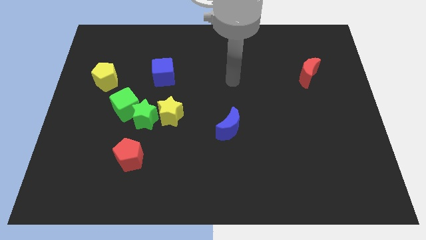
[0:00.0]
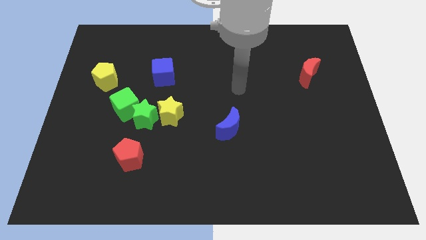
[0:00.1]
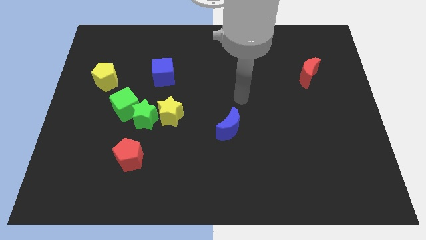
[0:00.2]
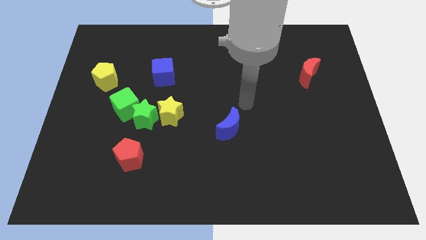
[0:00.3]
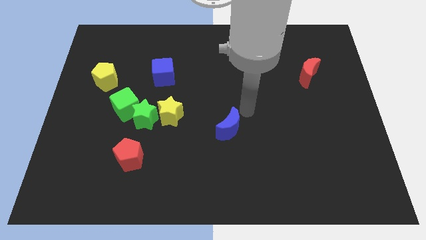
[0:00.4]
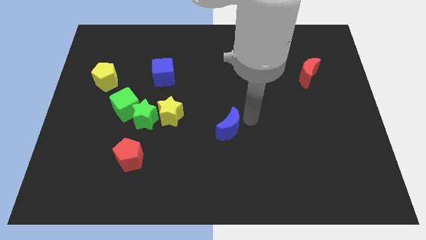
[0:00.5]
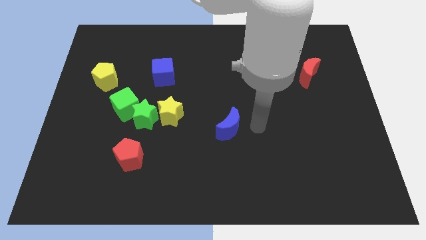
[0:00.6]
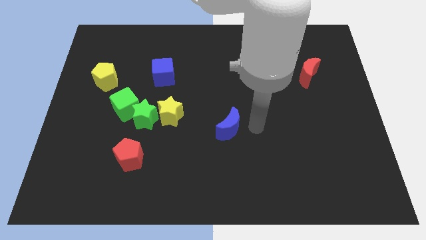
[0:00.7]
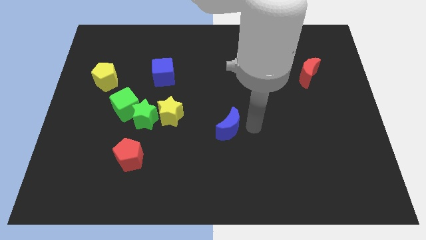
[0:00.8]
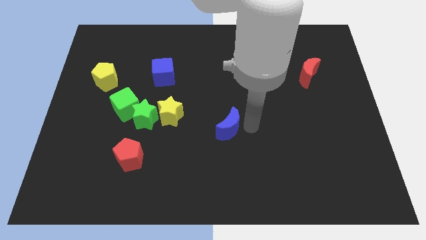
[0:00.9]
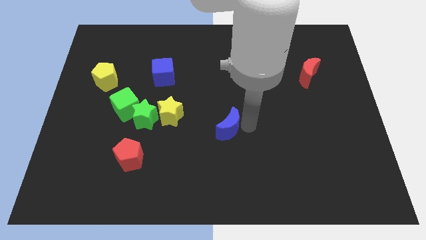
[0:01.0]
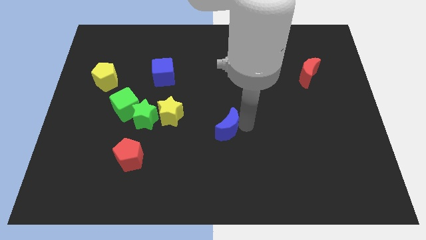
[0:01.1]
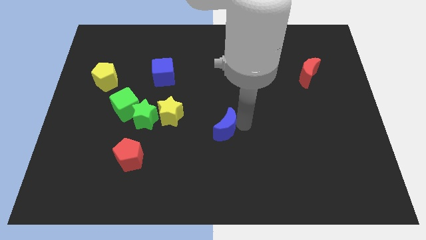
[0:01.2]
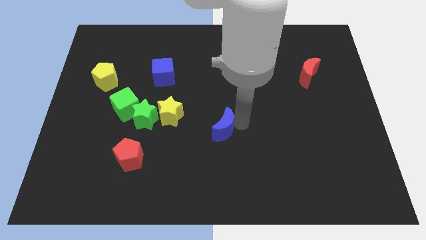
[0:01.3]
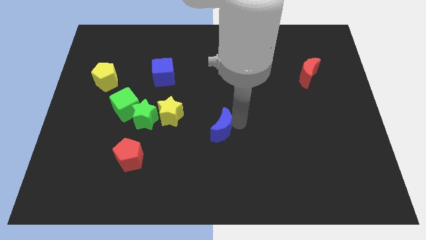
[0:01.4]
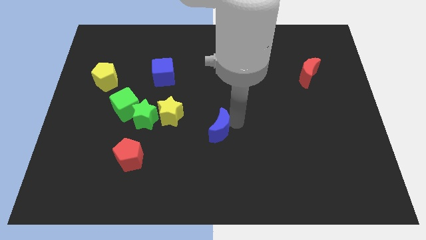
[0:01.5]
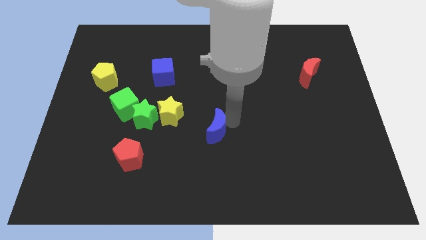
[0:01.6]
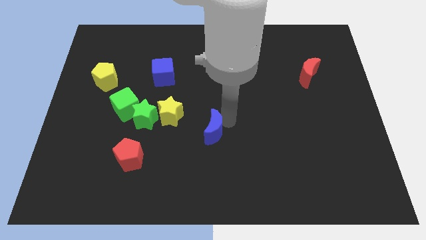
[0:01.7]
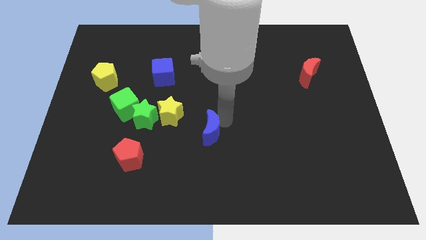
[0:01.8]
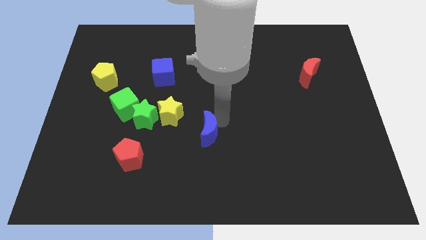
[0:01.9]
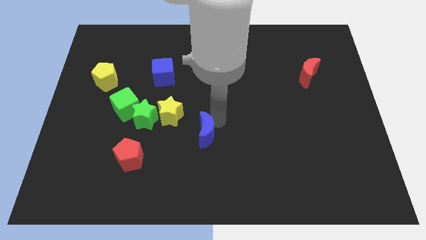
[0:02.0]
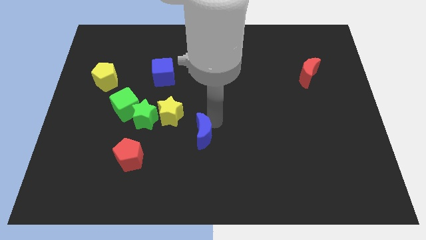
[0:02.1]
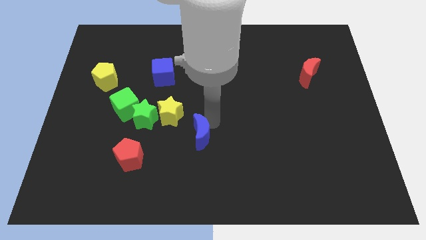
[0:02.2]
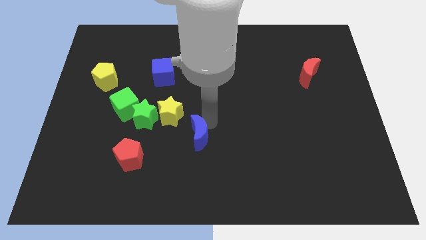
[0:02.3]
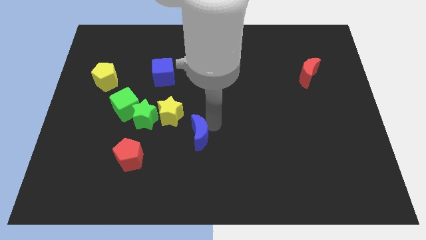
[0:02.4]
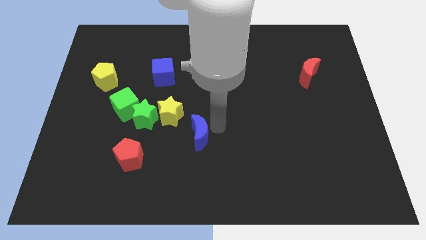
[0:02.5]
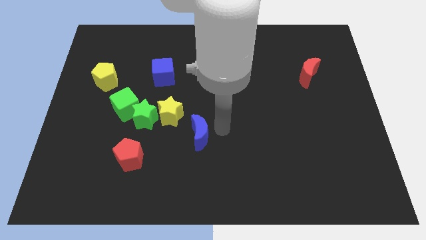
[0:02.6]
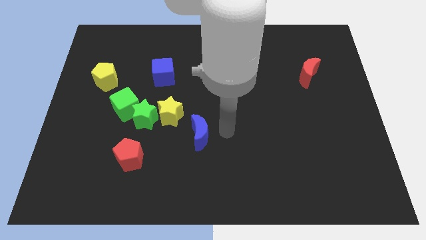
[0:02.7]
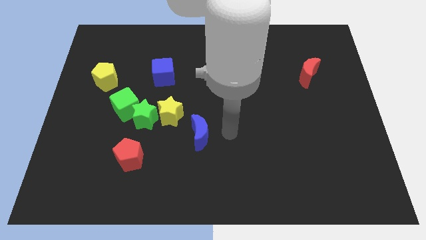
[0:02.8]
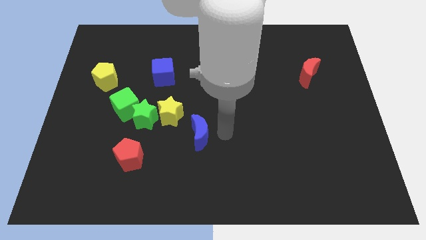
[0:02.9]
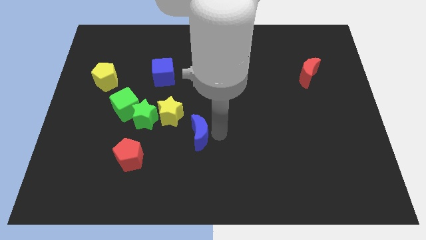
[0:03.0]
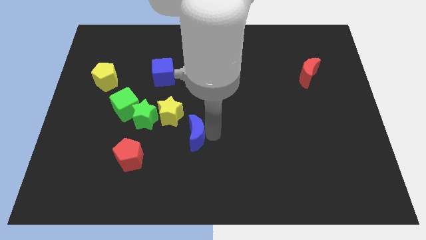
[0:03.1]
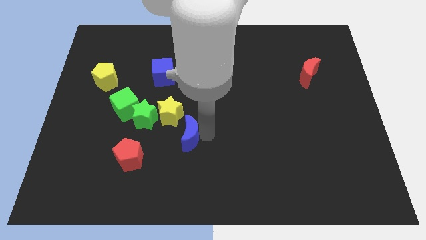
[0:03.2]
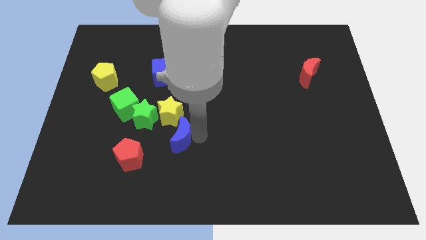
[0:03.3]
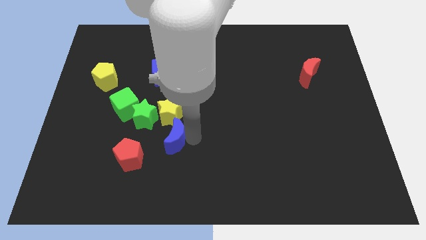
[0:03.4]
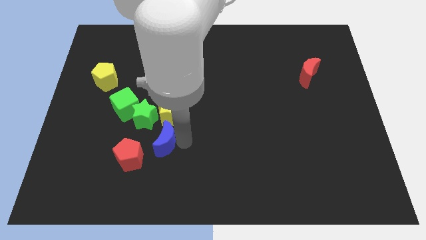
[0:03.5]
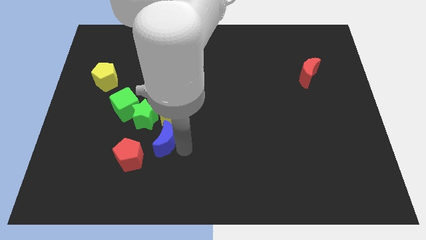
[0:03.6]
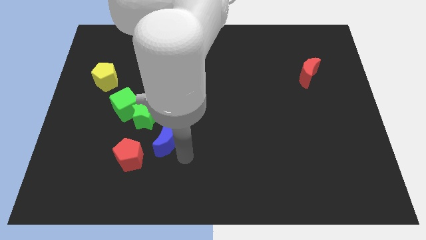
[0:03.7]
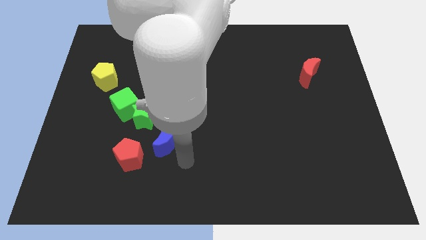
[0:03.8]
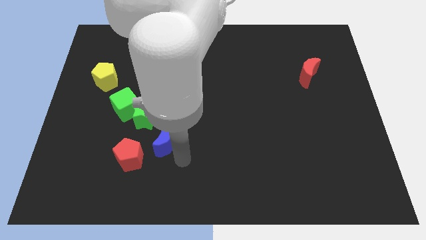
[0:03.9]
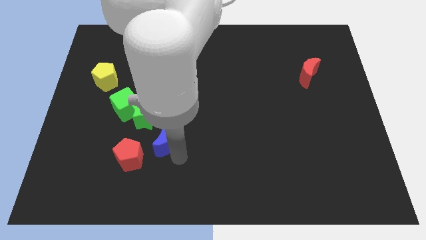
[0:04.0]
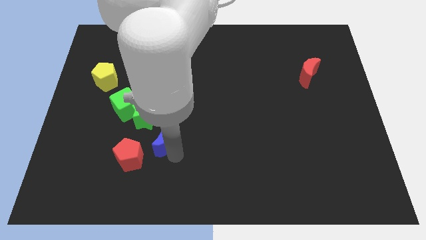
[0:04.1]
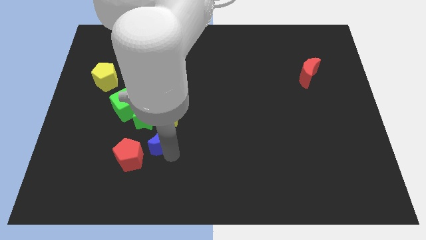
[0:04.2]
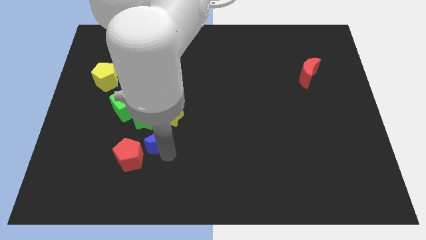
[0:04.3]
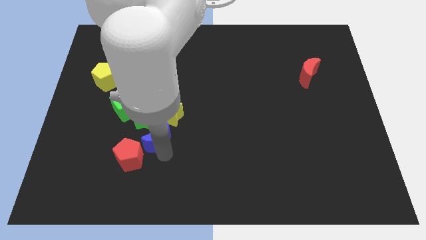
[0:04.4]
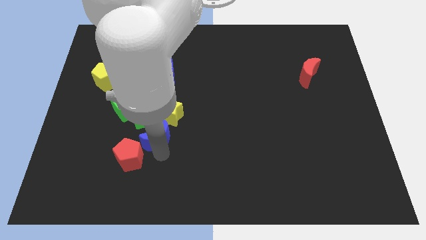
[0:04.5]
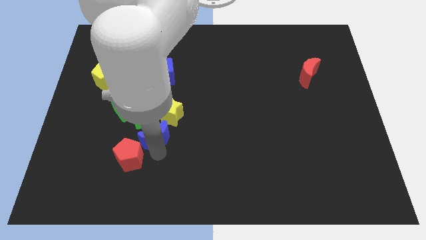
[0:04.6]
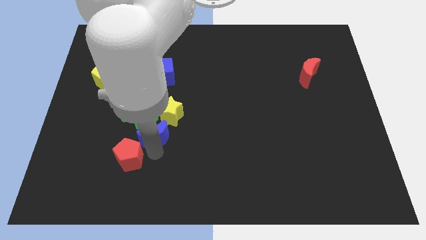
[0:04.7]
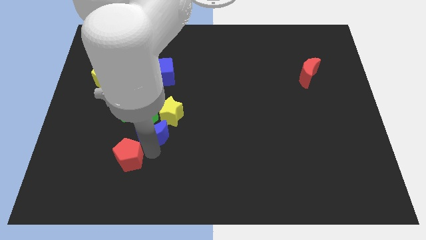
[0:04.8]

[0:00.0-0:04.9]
move the blue moon to the green star

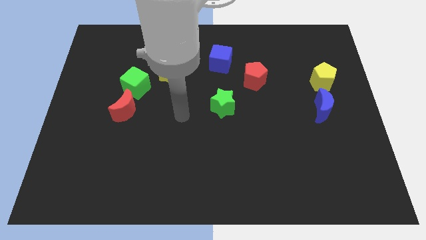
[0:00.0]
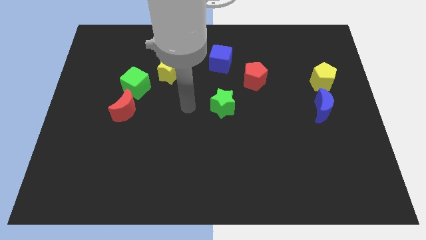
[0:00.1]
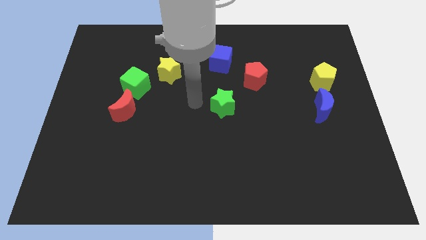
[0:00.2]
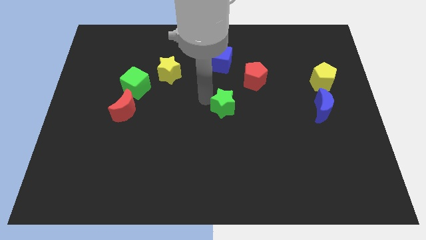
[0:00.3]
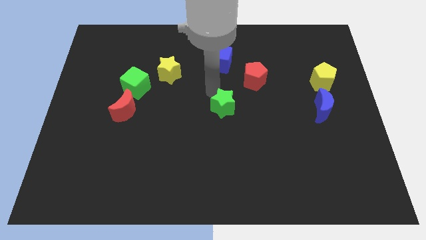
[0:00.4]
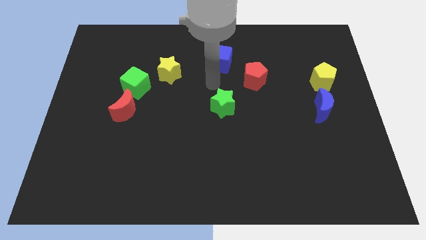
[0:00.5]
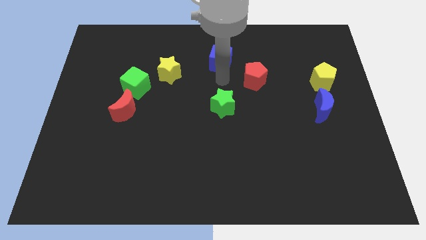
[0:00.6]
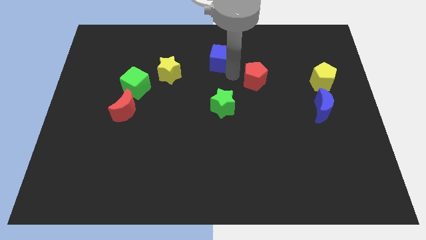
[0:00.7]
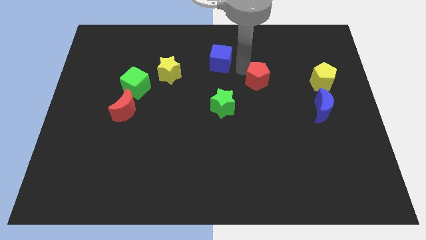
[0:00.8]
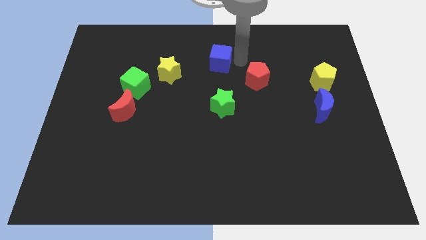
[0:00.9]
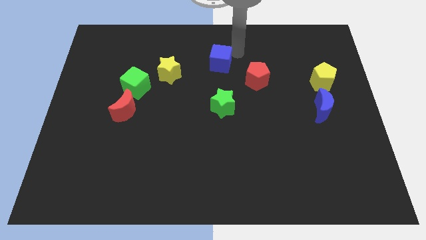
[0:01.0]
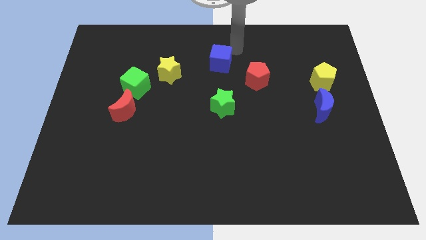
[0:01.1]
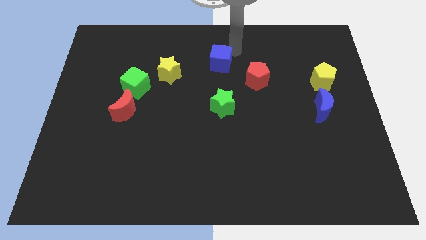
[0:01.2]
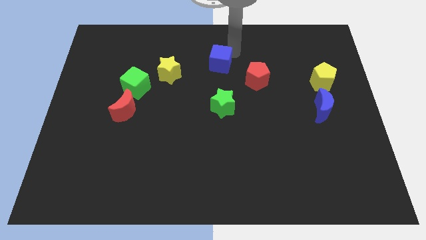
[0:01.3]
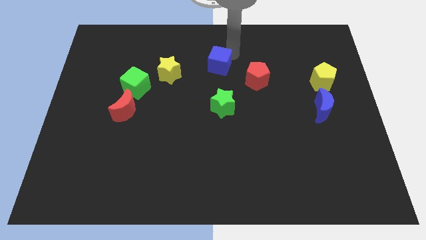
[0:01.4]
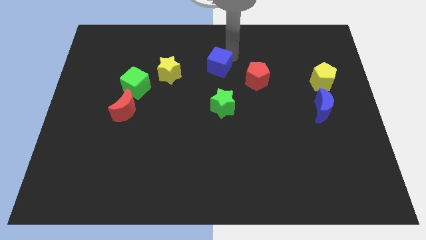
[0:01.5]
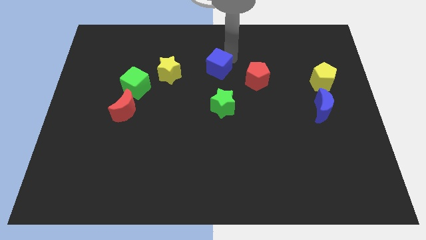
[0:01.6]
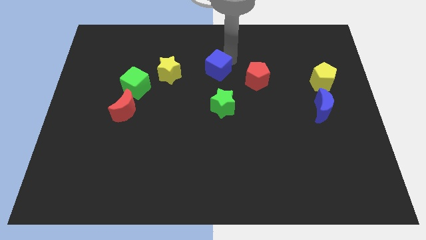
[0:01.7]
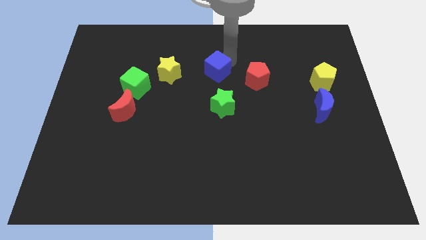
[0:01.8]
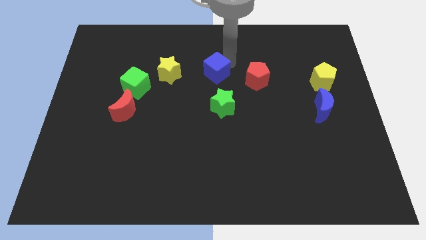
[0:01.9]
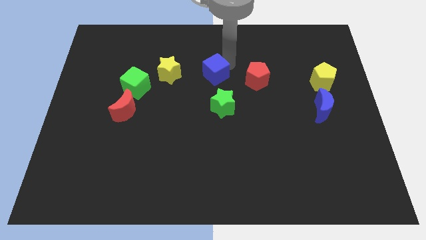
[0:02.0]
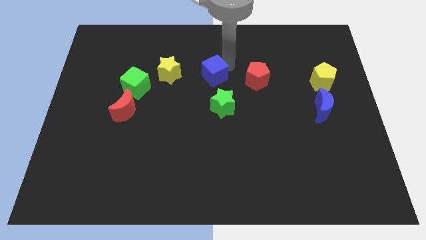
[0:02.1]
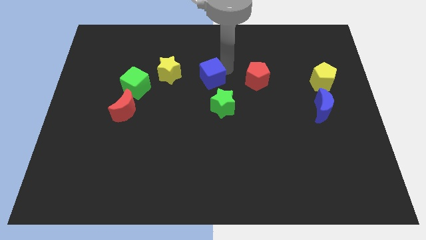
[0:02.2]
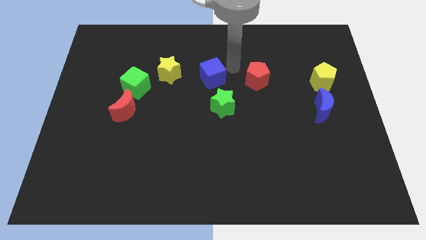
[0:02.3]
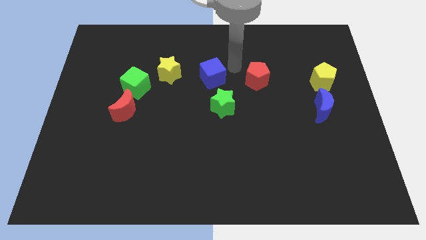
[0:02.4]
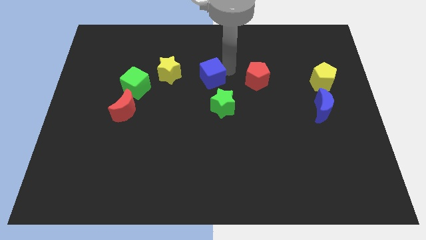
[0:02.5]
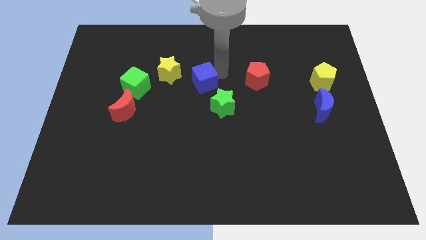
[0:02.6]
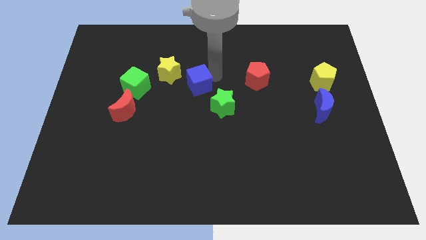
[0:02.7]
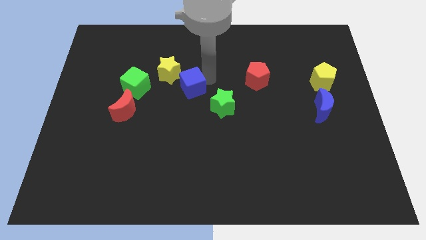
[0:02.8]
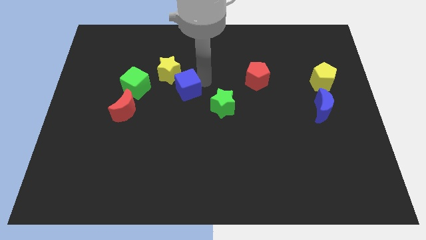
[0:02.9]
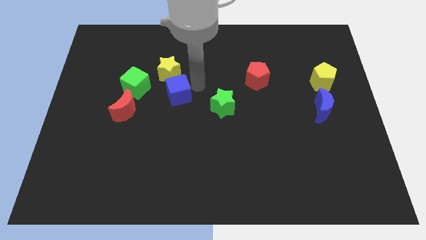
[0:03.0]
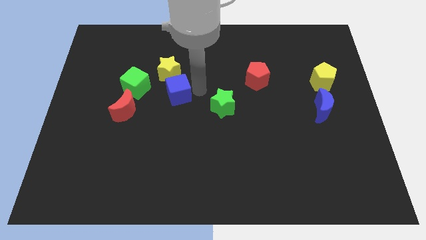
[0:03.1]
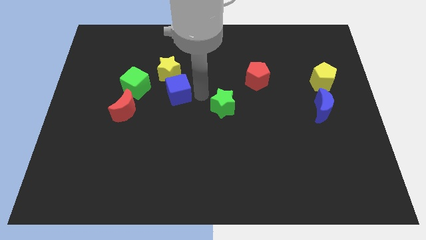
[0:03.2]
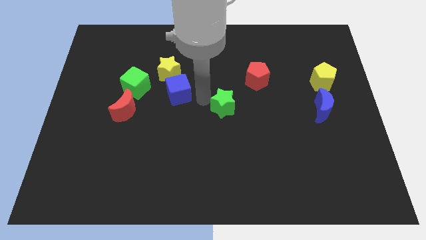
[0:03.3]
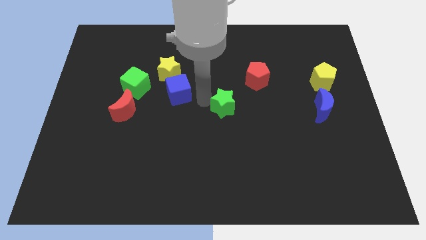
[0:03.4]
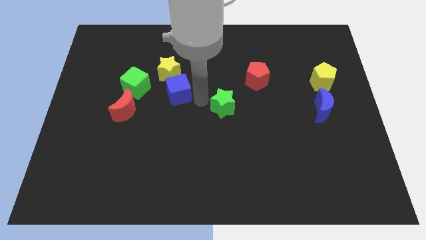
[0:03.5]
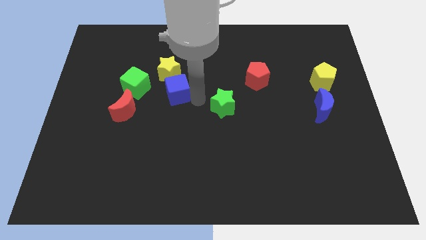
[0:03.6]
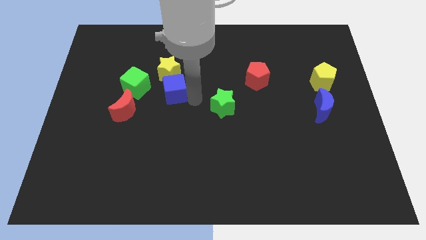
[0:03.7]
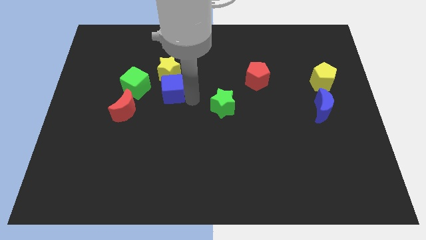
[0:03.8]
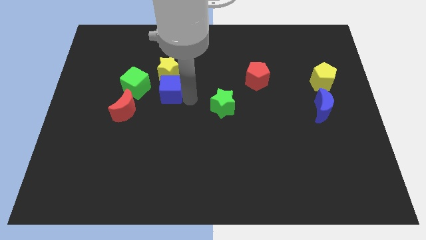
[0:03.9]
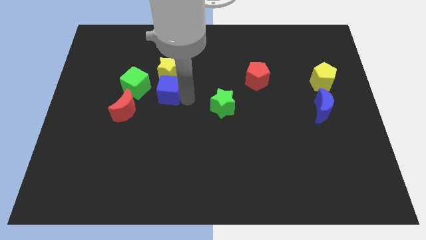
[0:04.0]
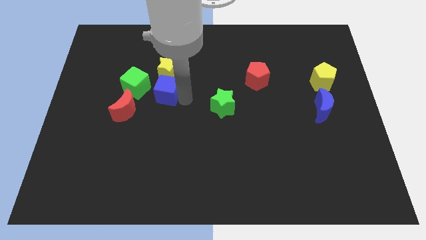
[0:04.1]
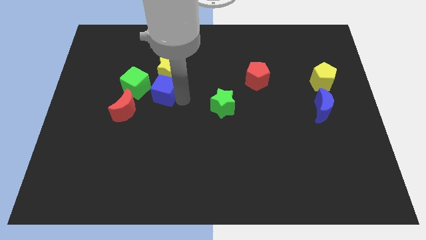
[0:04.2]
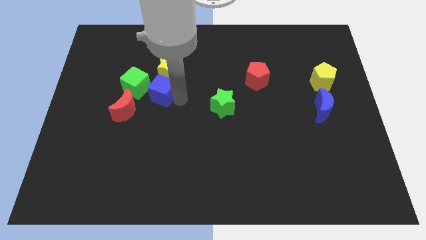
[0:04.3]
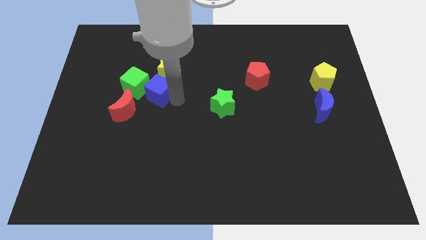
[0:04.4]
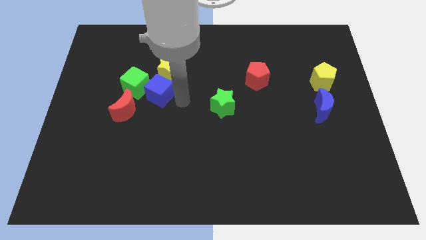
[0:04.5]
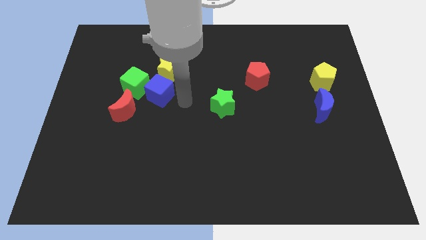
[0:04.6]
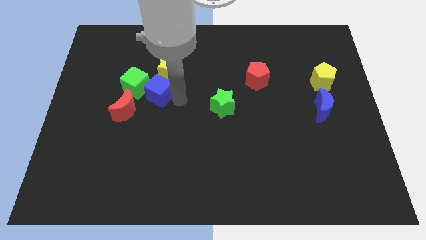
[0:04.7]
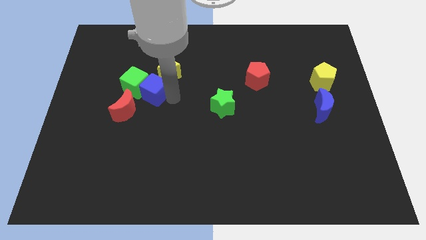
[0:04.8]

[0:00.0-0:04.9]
move the blue cube close to the green cube
